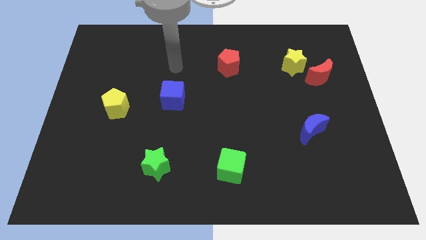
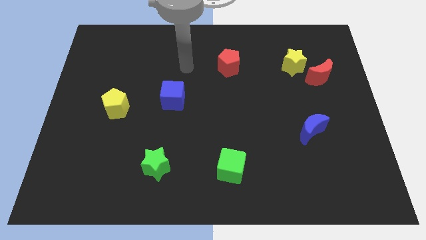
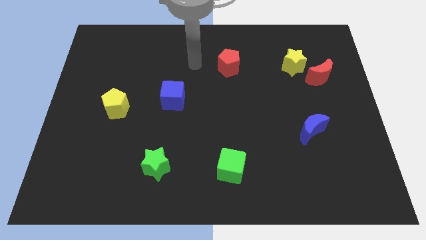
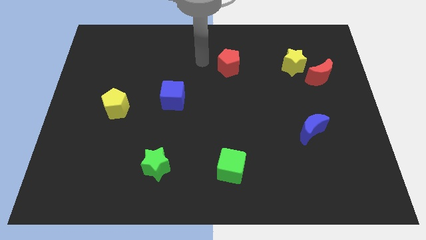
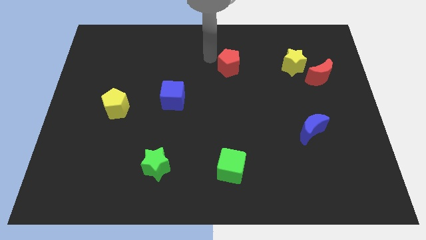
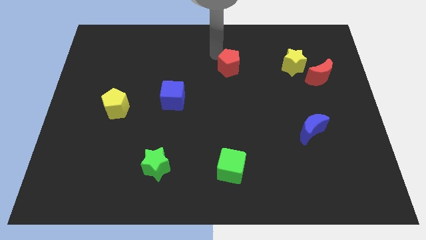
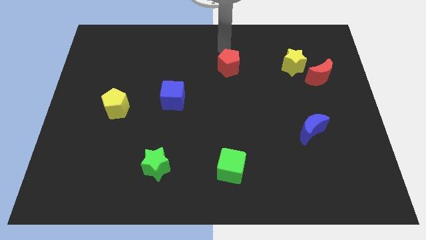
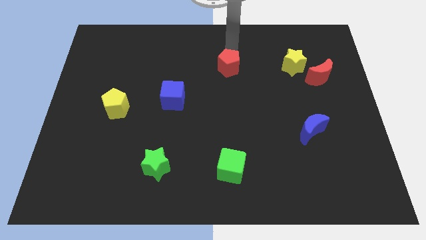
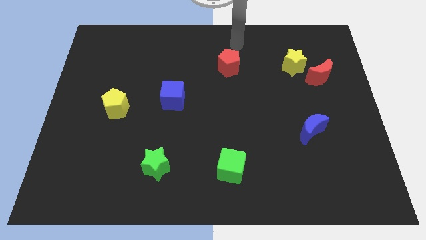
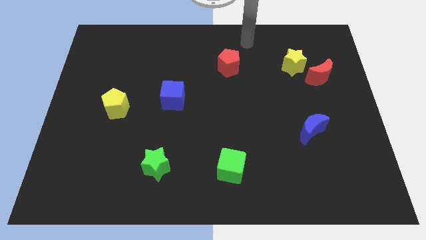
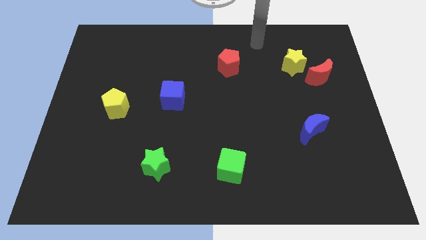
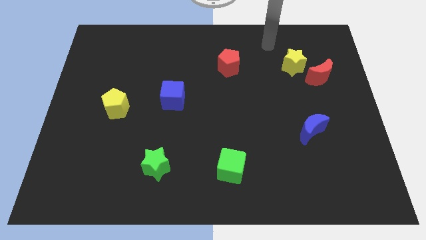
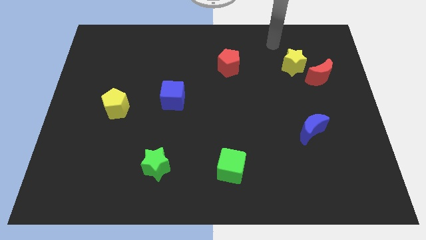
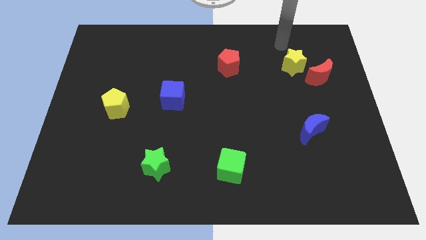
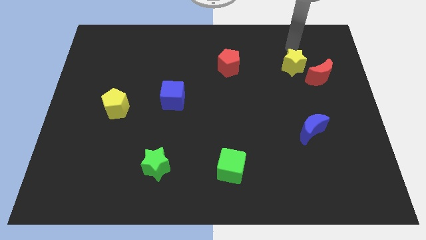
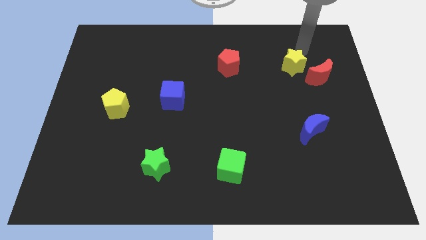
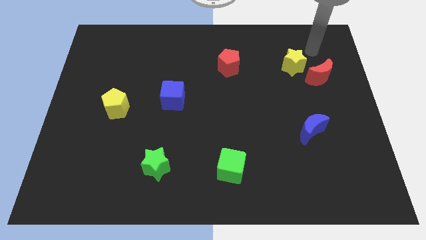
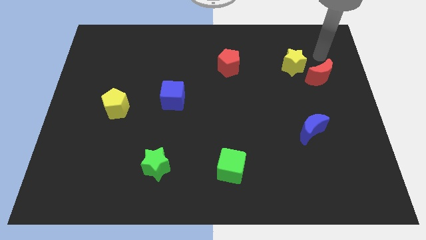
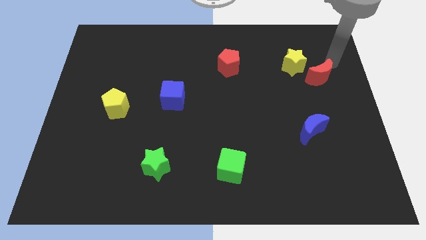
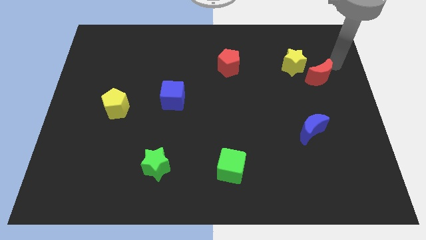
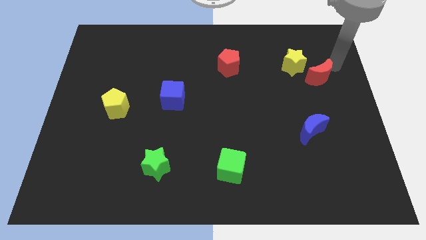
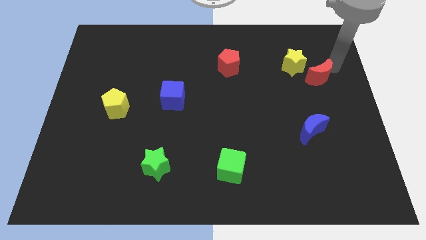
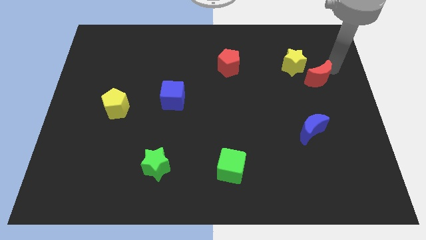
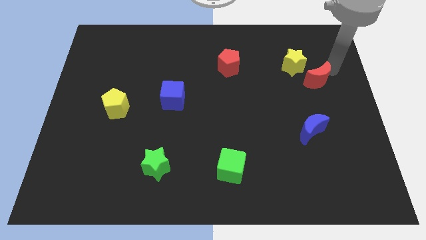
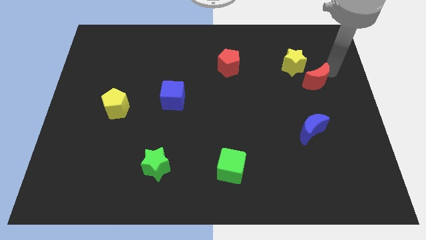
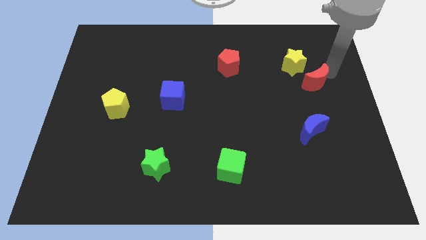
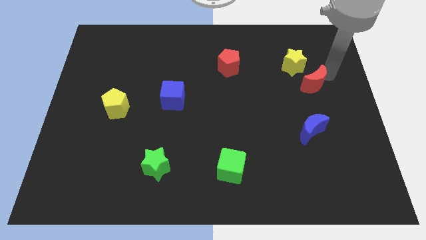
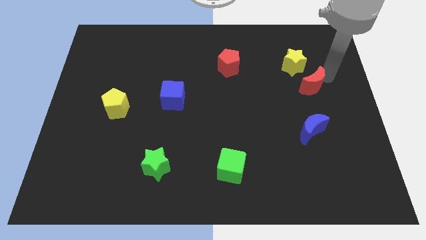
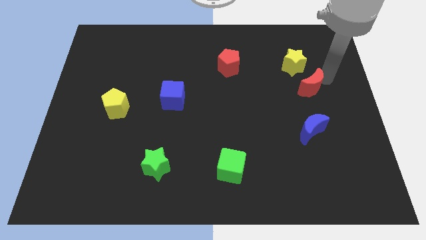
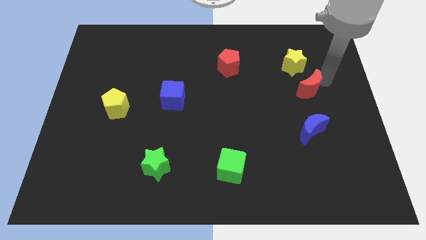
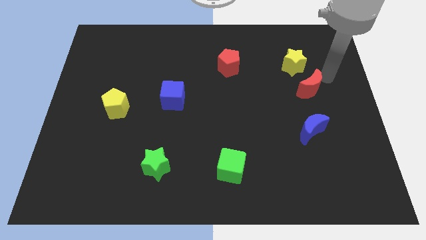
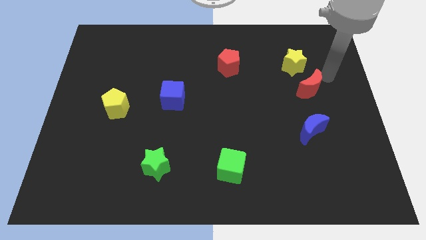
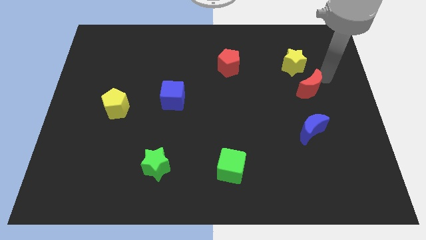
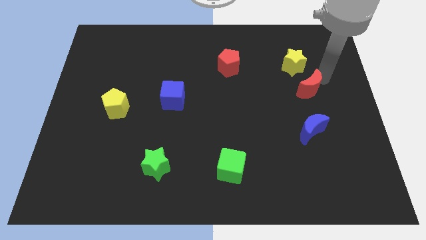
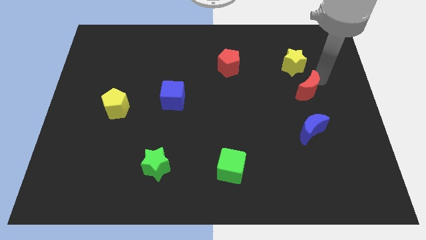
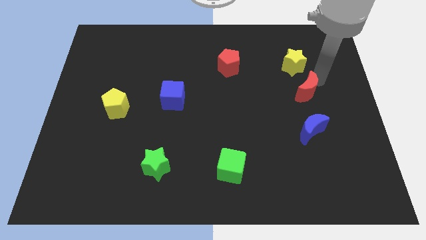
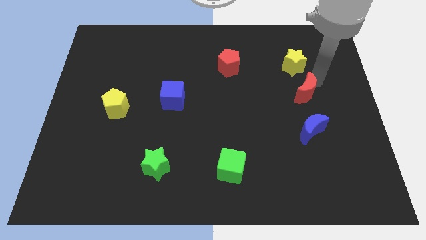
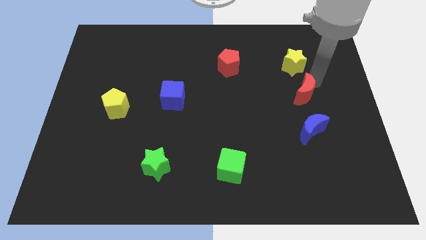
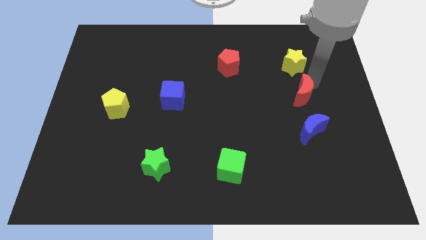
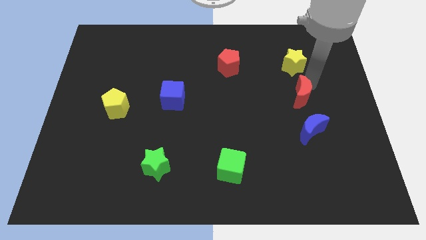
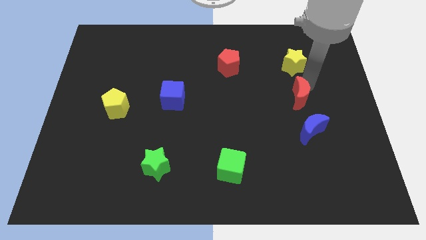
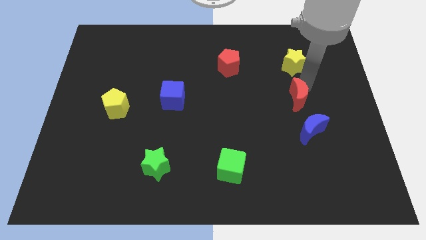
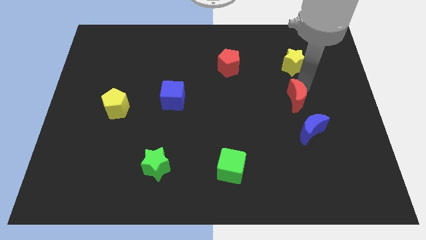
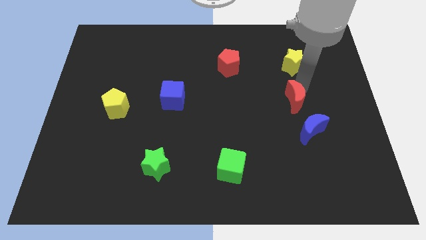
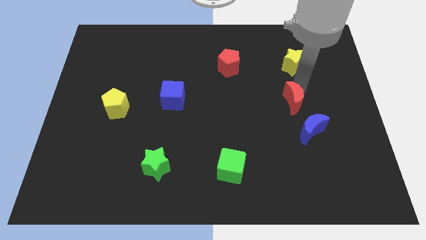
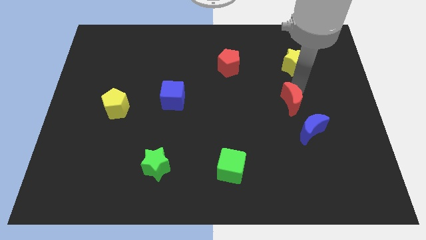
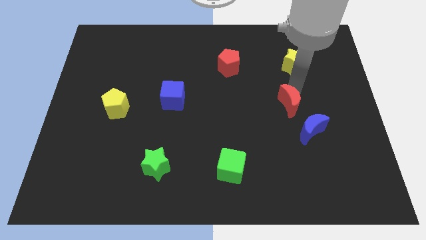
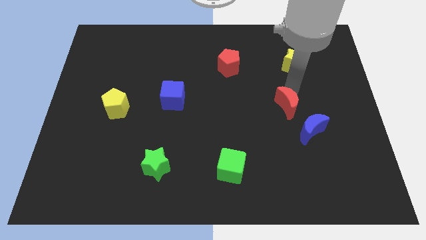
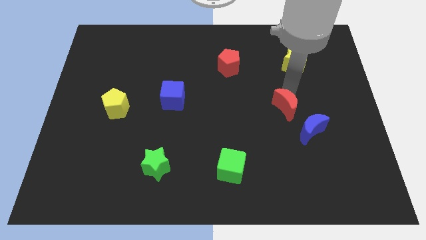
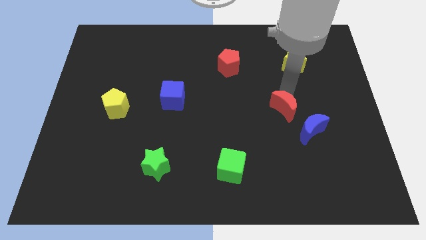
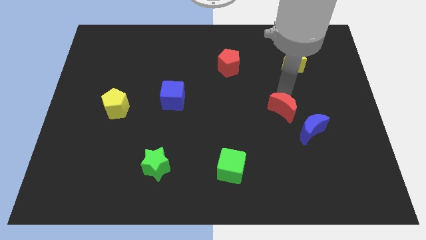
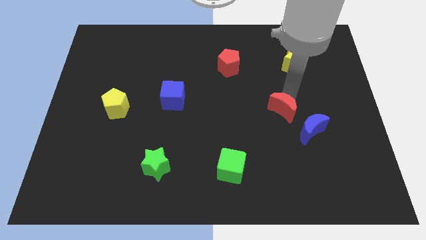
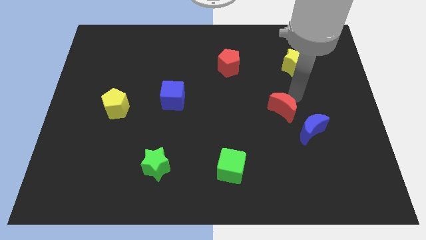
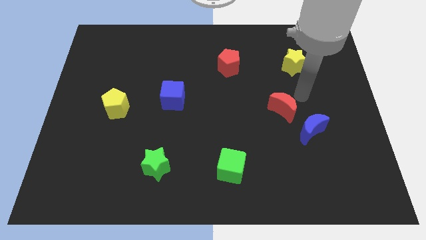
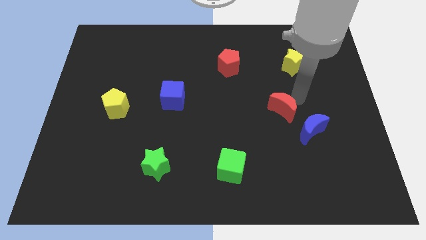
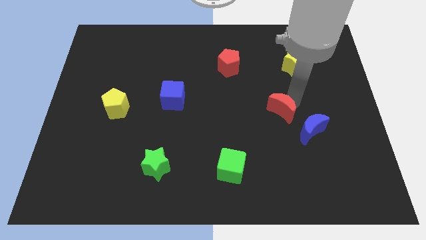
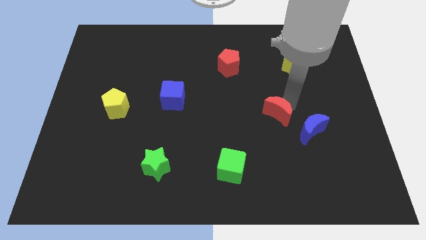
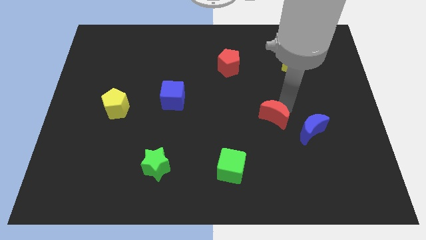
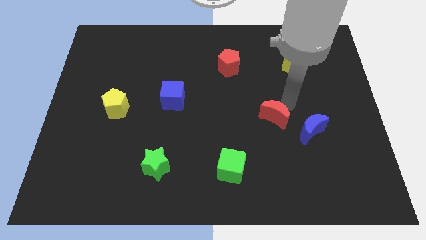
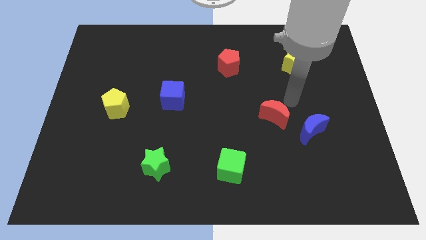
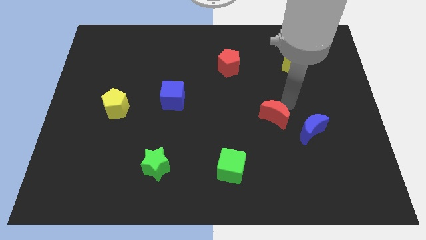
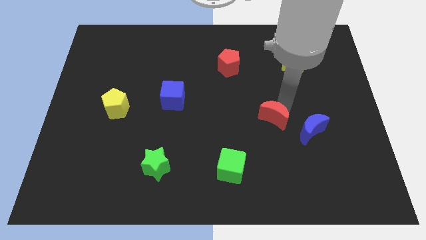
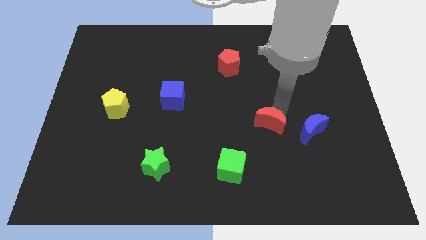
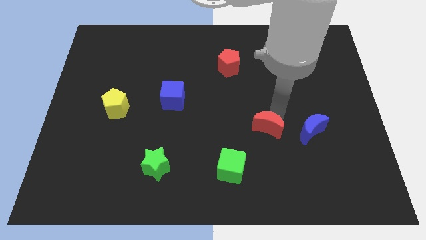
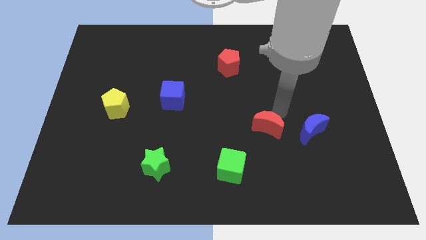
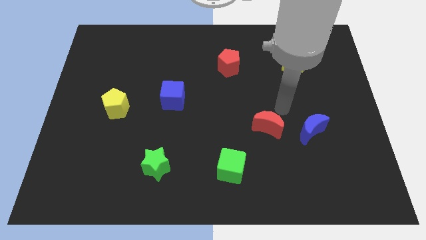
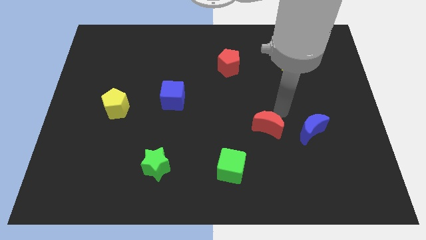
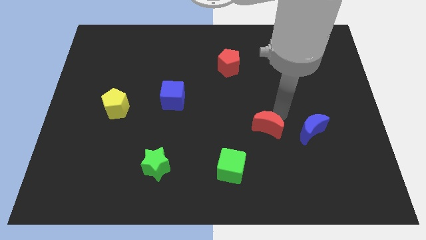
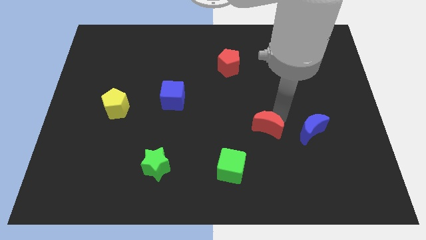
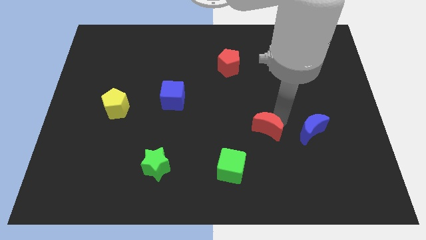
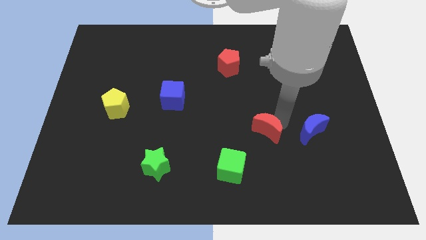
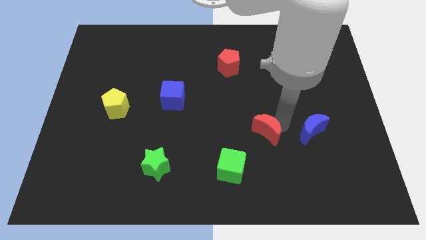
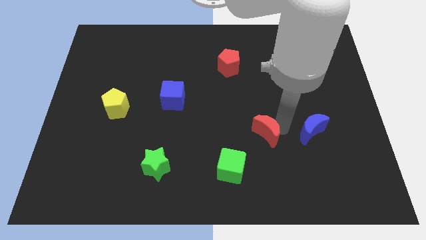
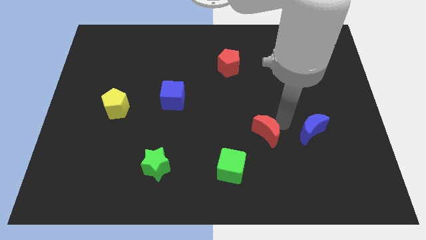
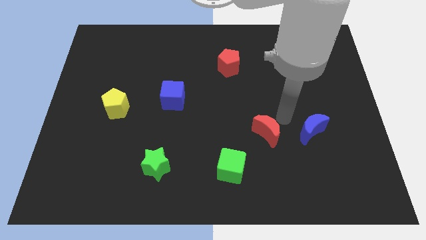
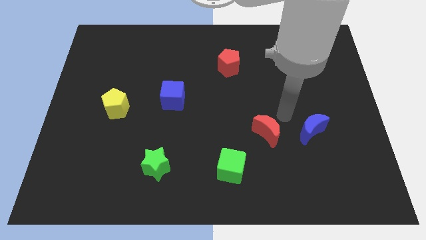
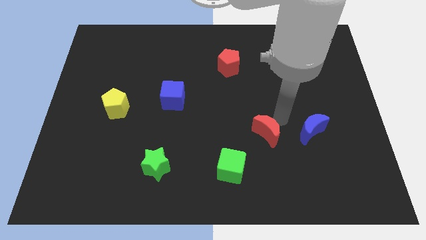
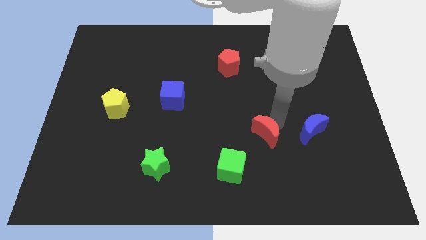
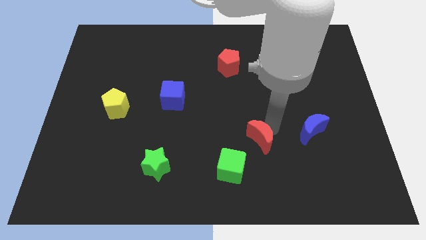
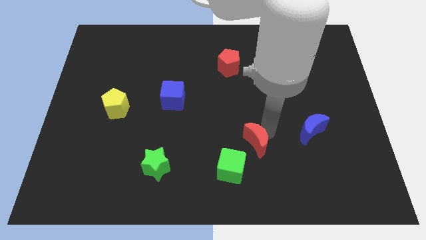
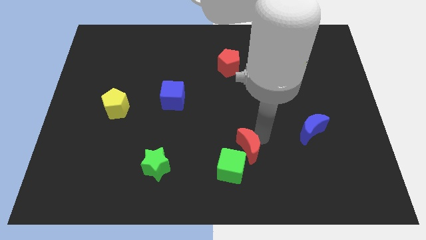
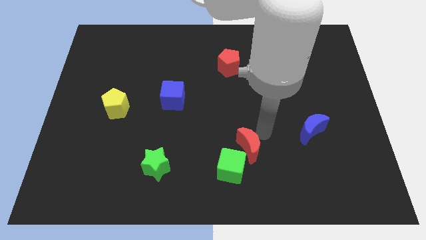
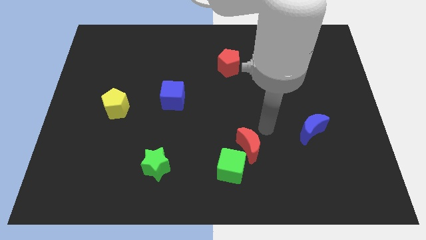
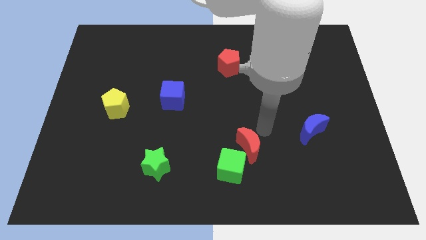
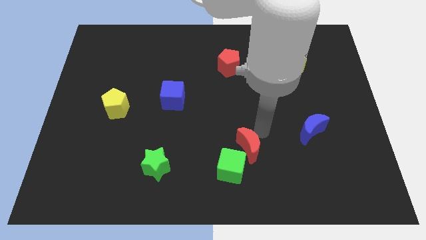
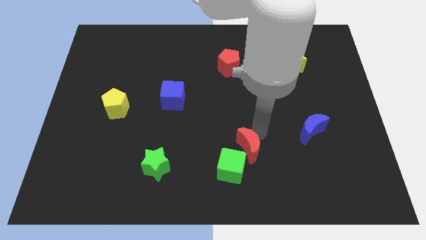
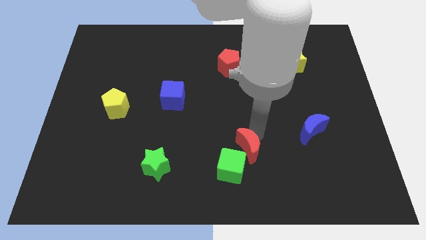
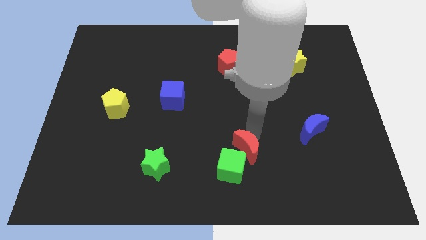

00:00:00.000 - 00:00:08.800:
move the red moon close to the green cube
